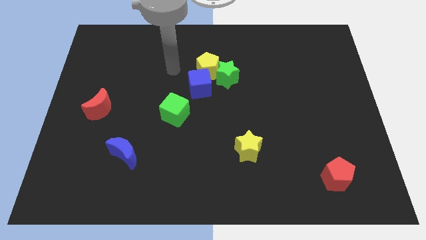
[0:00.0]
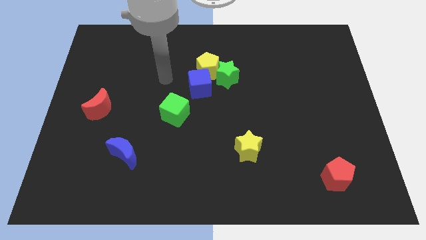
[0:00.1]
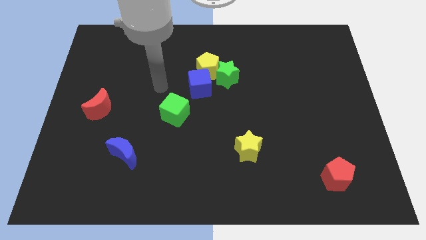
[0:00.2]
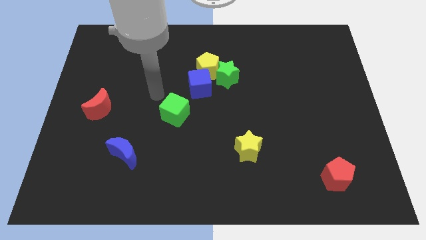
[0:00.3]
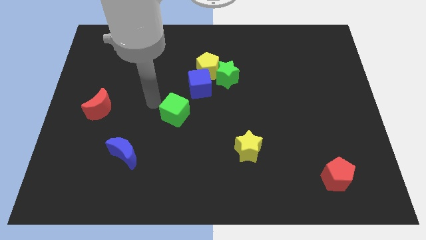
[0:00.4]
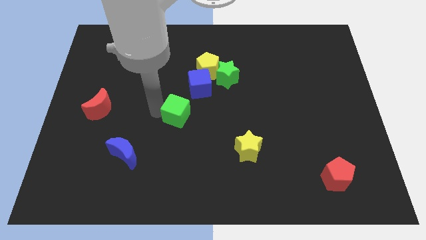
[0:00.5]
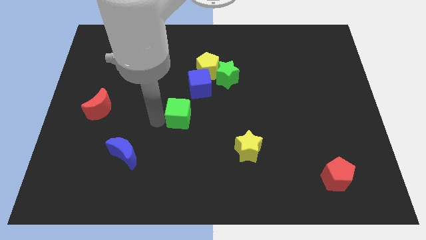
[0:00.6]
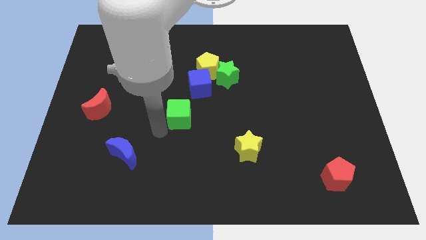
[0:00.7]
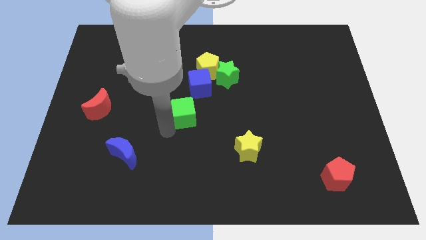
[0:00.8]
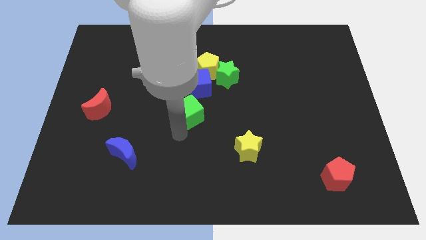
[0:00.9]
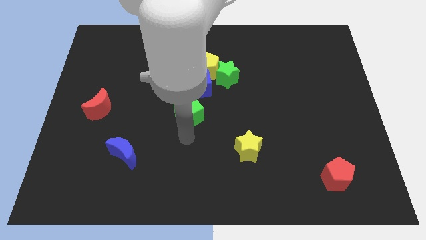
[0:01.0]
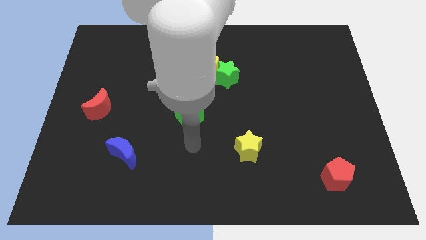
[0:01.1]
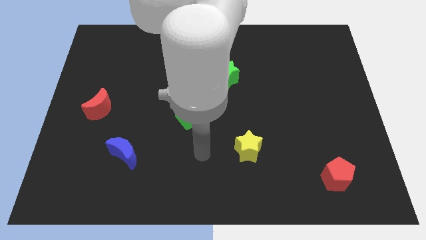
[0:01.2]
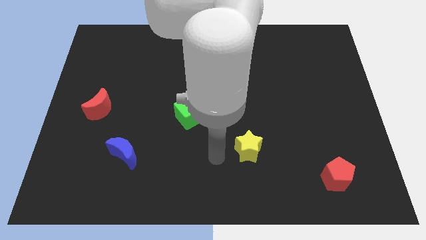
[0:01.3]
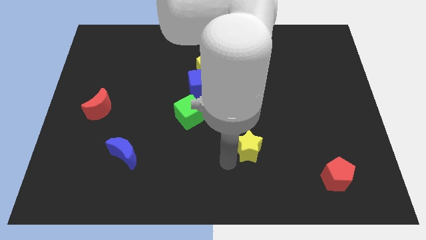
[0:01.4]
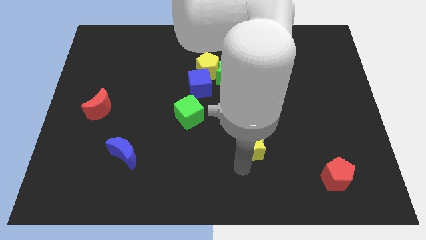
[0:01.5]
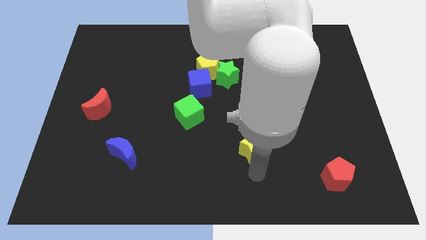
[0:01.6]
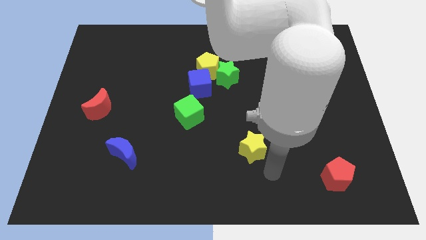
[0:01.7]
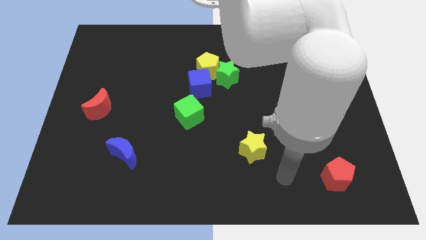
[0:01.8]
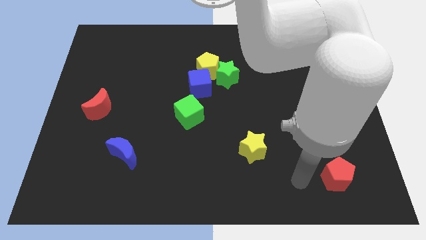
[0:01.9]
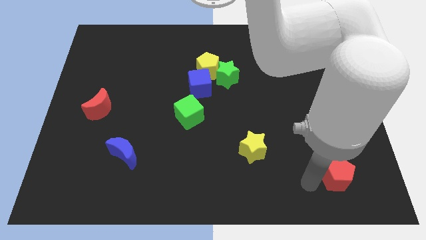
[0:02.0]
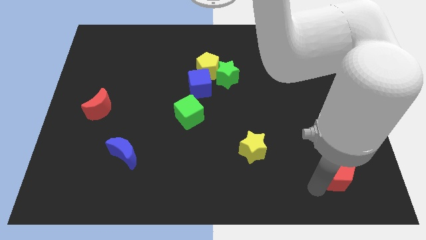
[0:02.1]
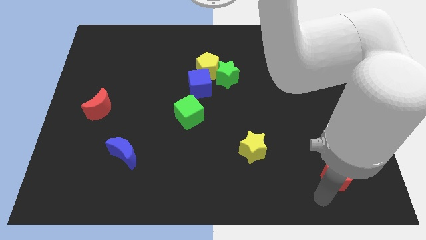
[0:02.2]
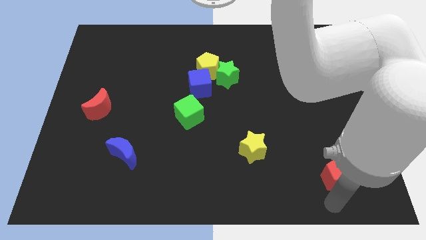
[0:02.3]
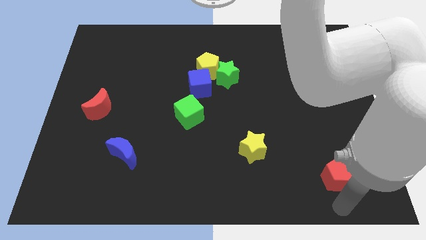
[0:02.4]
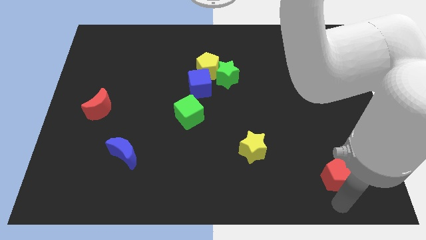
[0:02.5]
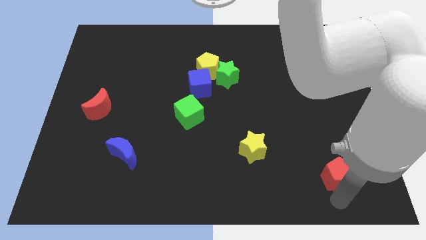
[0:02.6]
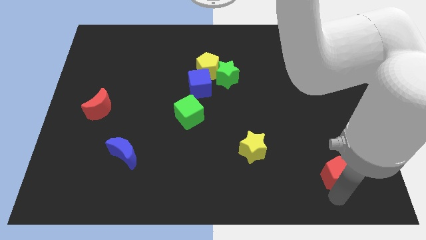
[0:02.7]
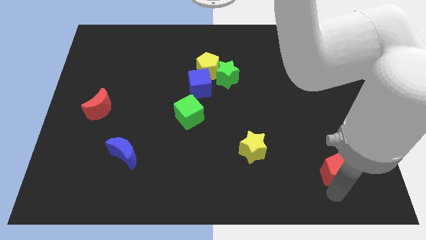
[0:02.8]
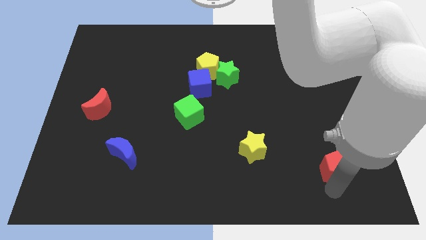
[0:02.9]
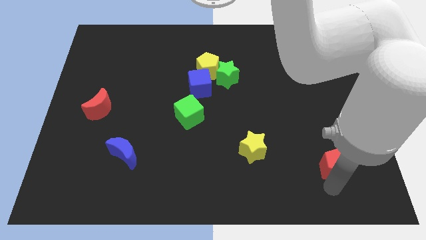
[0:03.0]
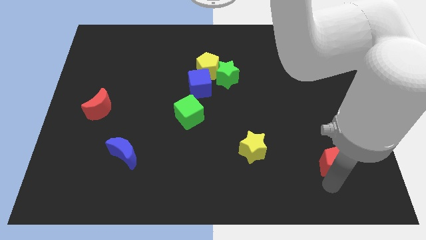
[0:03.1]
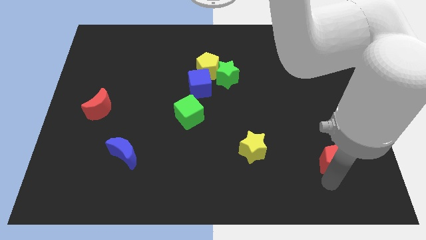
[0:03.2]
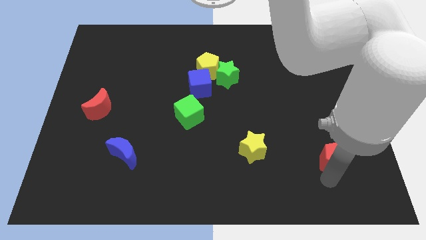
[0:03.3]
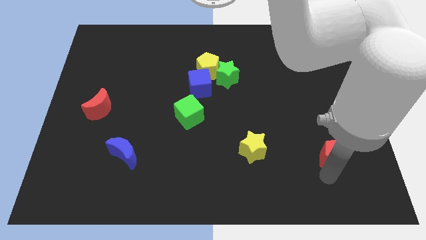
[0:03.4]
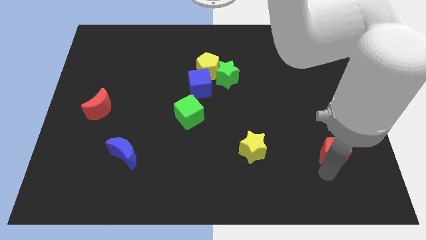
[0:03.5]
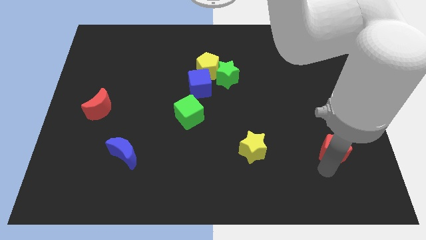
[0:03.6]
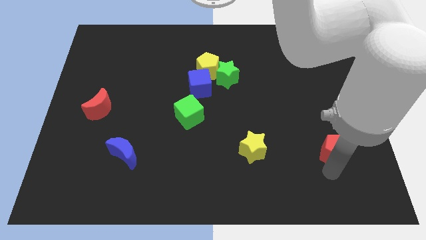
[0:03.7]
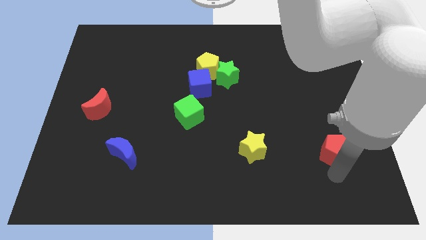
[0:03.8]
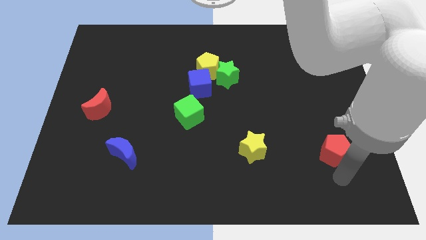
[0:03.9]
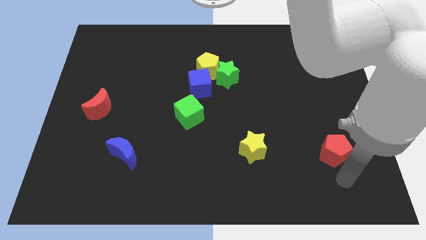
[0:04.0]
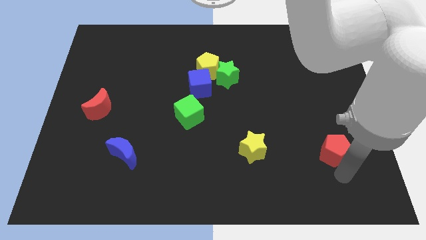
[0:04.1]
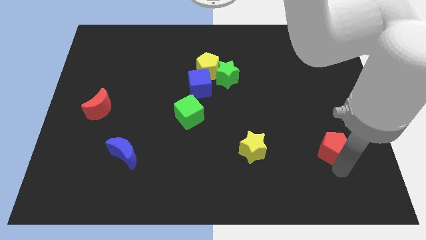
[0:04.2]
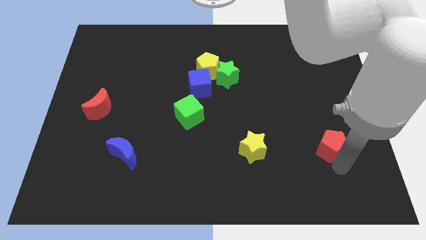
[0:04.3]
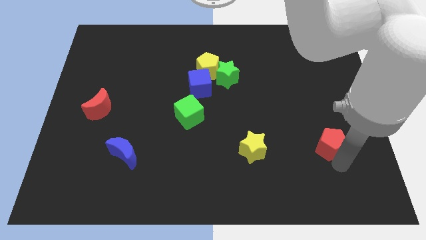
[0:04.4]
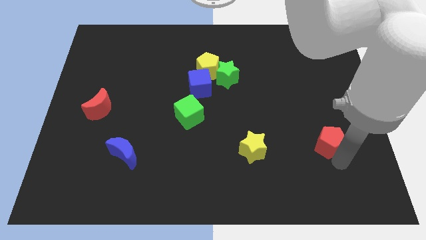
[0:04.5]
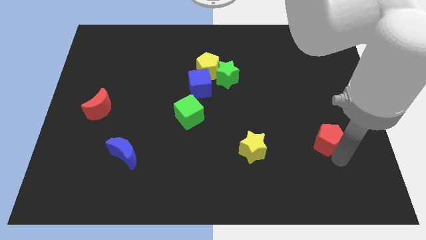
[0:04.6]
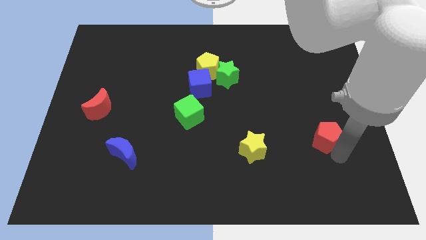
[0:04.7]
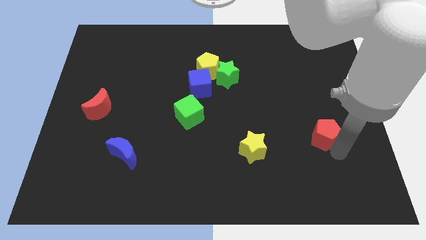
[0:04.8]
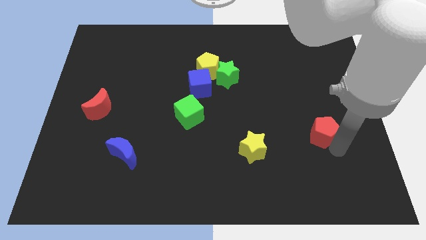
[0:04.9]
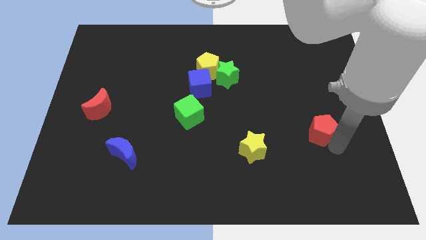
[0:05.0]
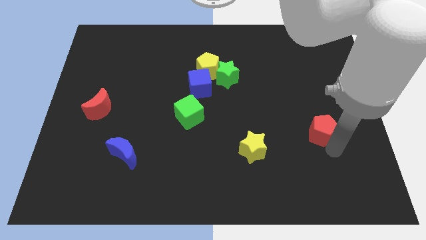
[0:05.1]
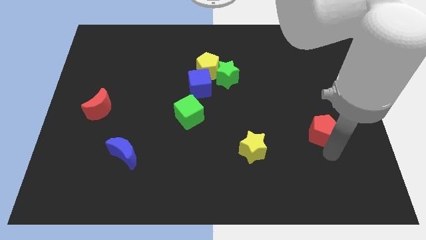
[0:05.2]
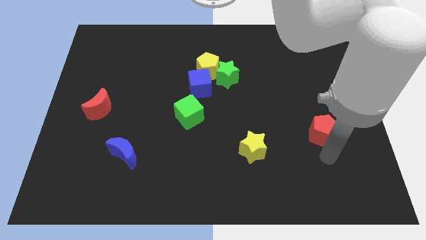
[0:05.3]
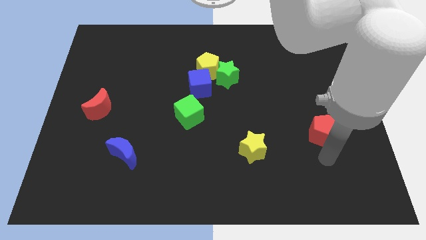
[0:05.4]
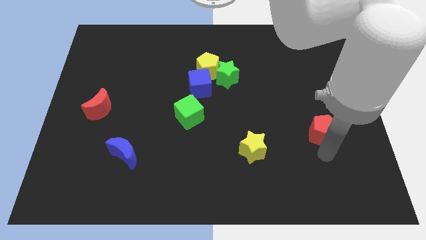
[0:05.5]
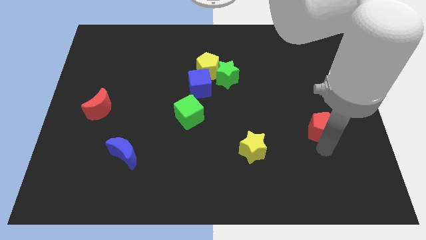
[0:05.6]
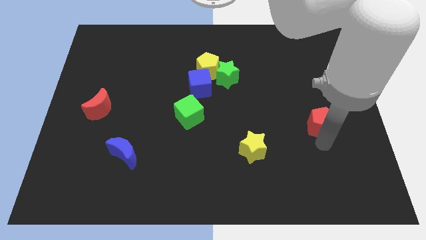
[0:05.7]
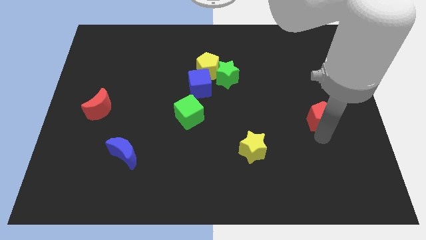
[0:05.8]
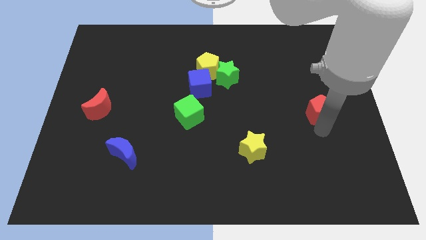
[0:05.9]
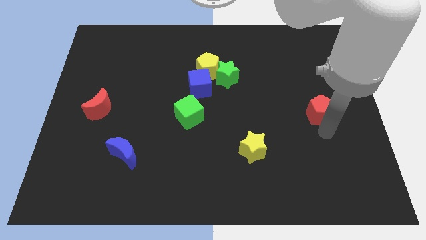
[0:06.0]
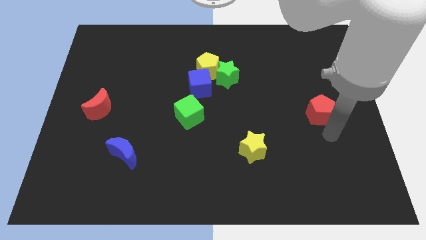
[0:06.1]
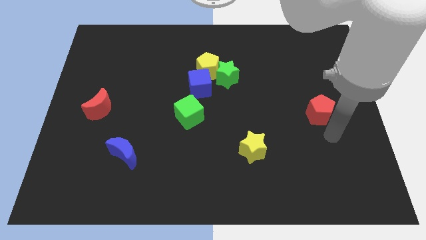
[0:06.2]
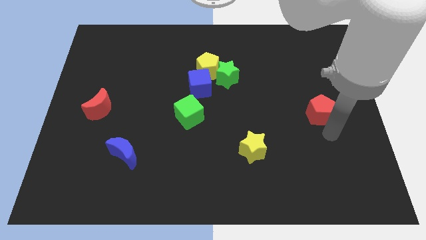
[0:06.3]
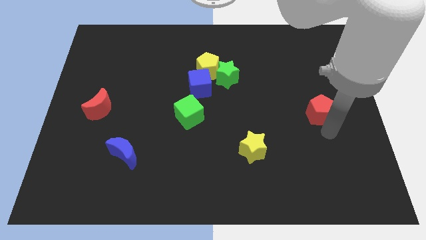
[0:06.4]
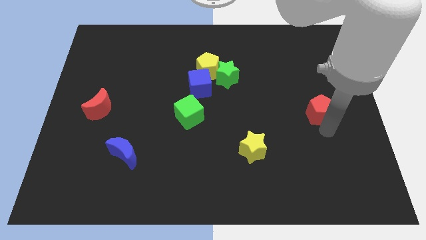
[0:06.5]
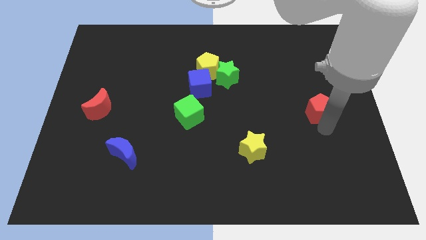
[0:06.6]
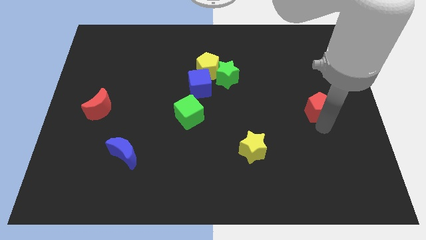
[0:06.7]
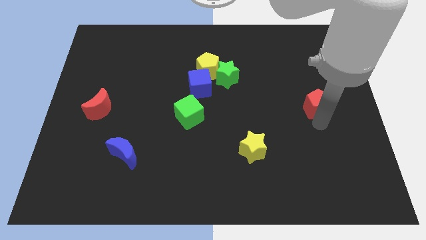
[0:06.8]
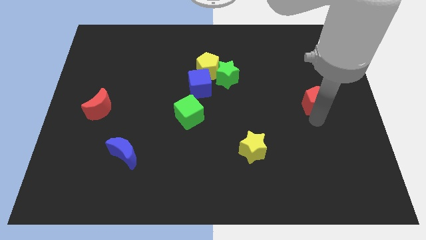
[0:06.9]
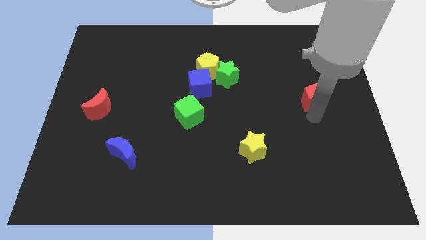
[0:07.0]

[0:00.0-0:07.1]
slide the red pentagon up

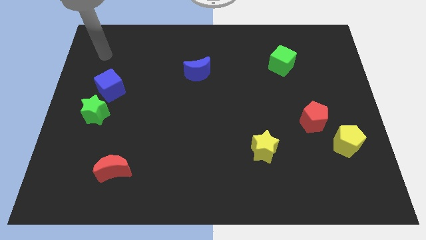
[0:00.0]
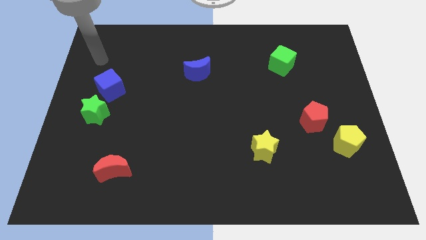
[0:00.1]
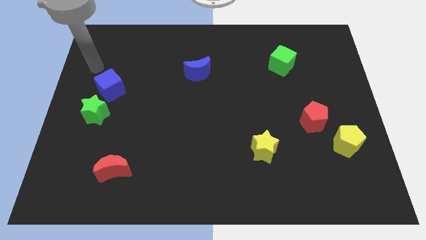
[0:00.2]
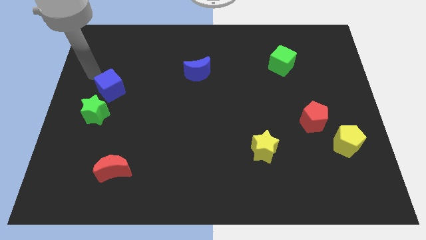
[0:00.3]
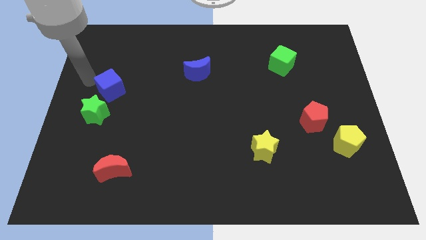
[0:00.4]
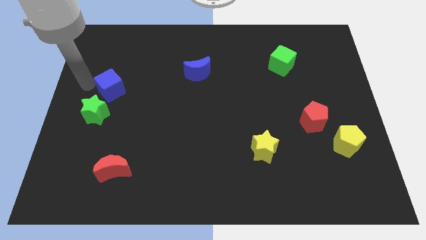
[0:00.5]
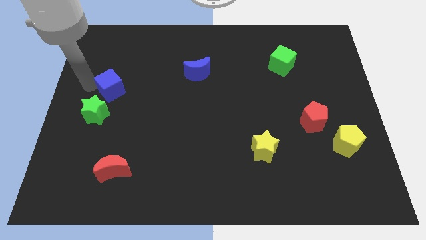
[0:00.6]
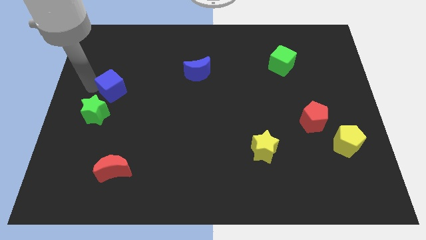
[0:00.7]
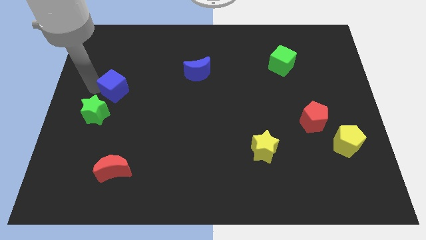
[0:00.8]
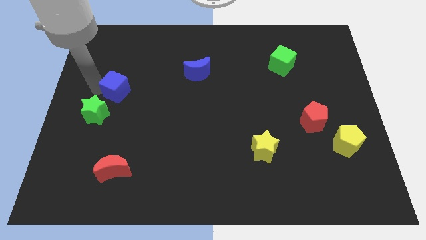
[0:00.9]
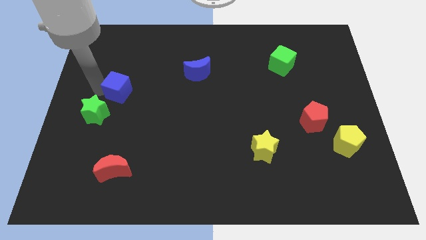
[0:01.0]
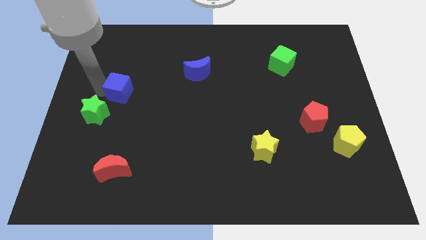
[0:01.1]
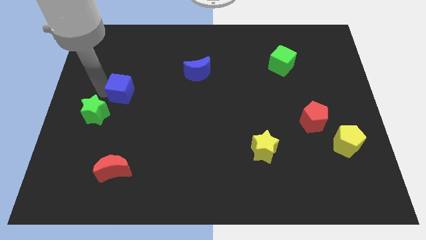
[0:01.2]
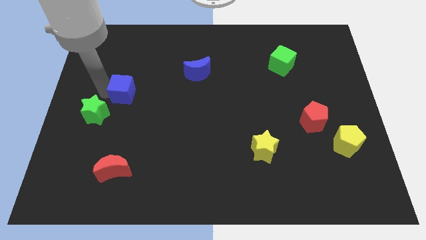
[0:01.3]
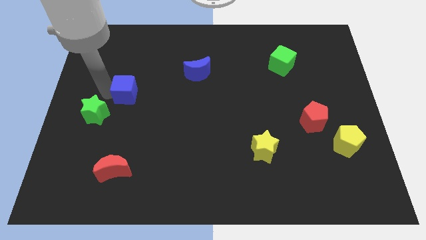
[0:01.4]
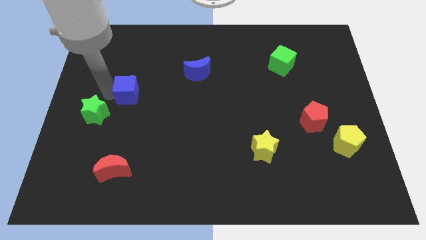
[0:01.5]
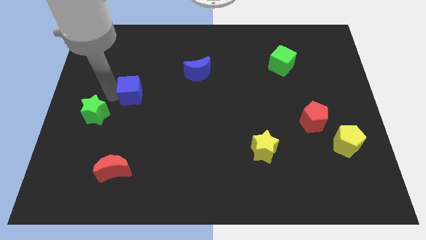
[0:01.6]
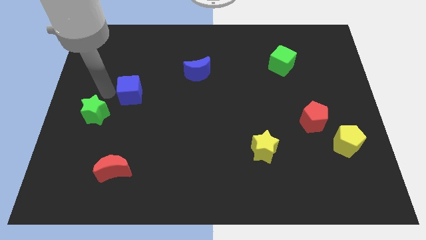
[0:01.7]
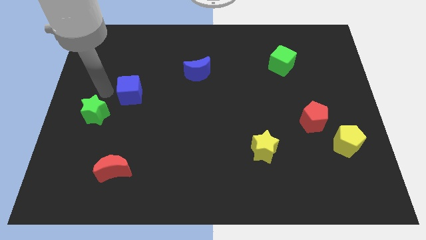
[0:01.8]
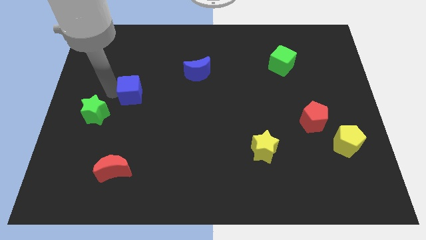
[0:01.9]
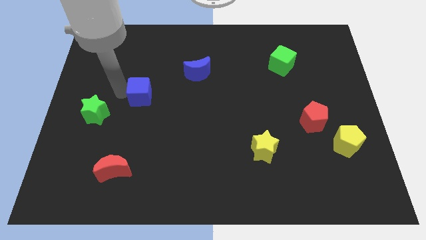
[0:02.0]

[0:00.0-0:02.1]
push the blue cube somewhat right
